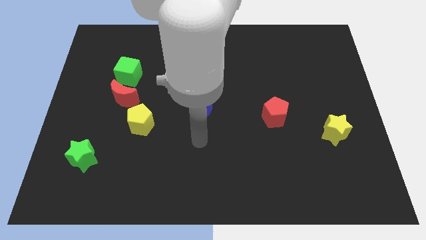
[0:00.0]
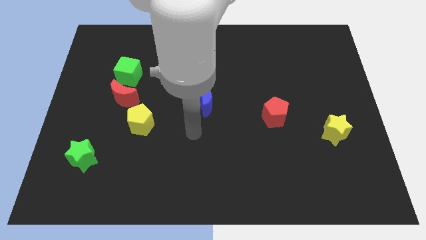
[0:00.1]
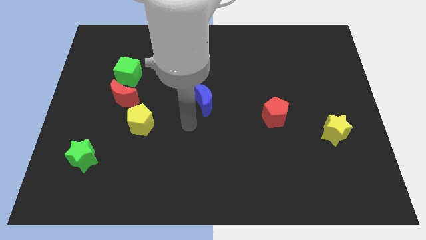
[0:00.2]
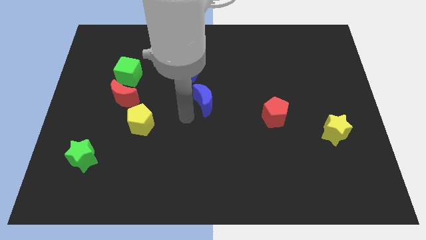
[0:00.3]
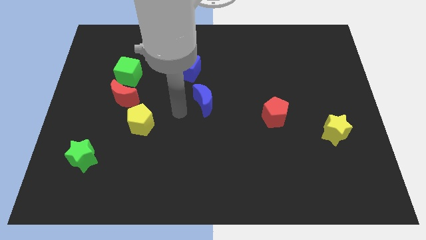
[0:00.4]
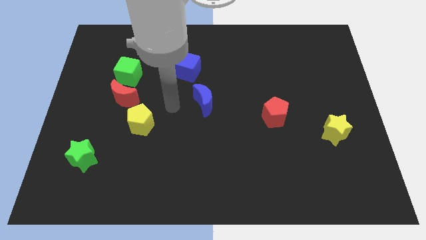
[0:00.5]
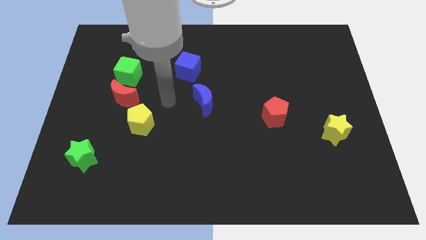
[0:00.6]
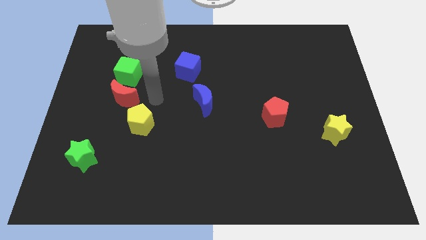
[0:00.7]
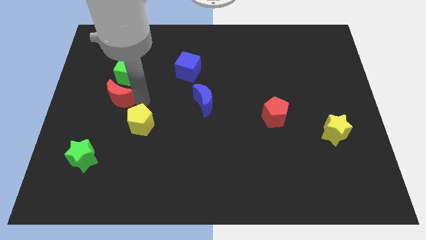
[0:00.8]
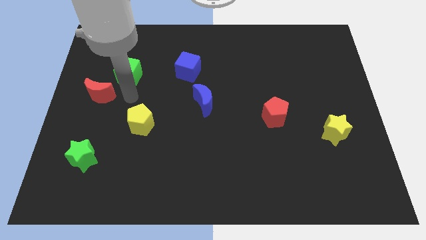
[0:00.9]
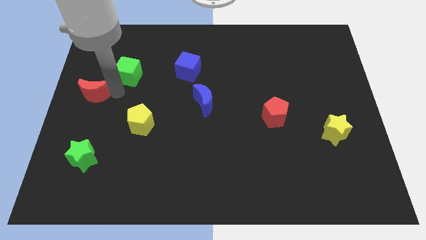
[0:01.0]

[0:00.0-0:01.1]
pull the green cube apart from the red moon

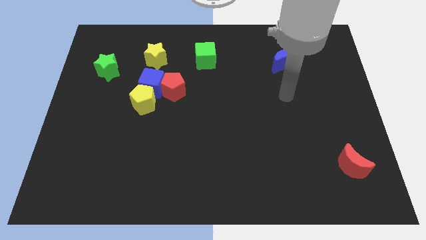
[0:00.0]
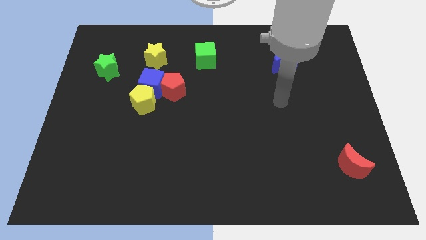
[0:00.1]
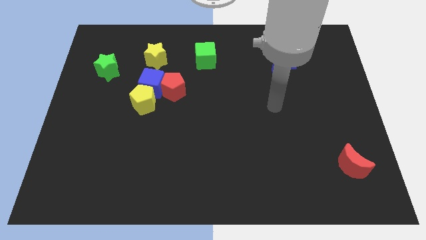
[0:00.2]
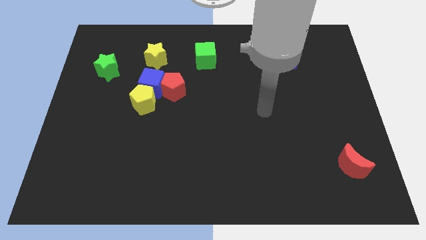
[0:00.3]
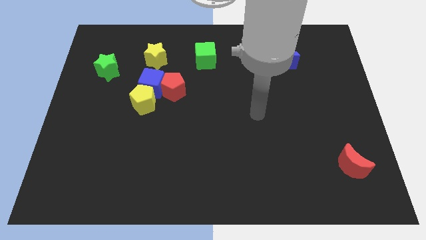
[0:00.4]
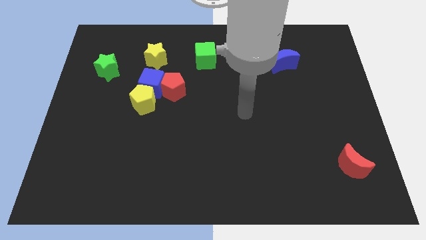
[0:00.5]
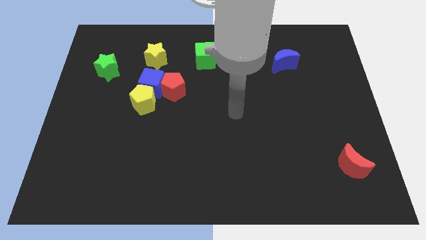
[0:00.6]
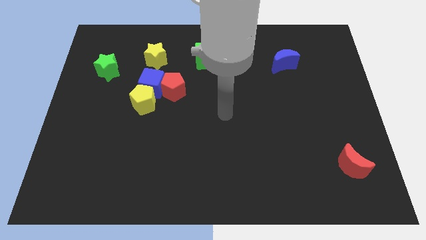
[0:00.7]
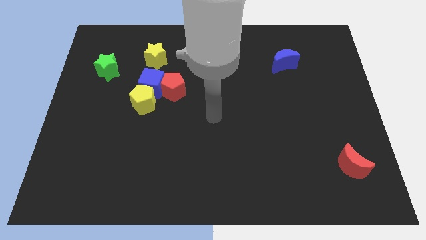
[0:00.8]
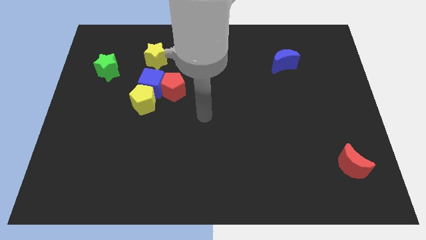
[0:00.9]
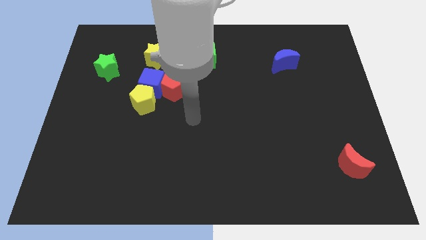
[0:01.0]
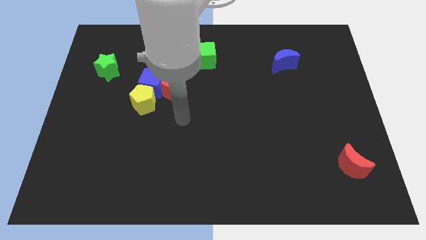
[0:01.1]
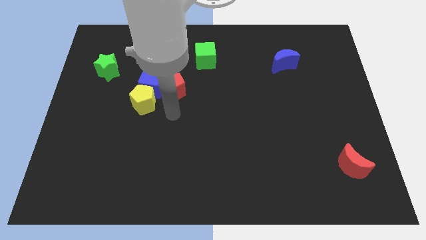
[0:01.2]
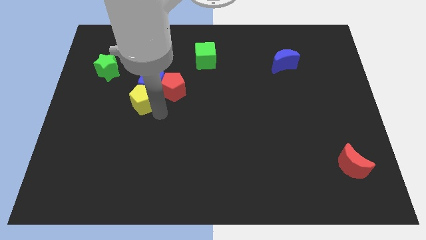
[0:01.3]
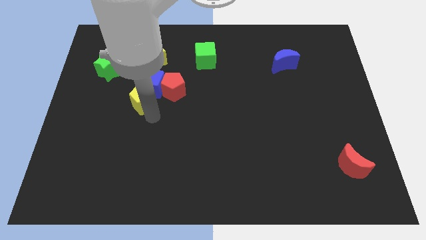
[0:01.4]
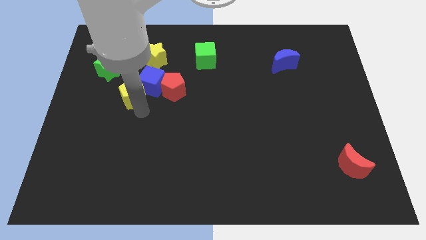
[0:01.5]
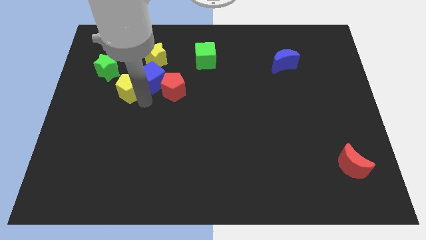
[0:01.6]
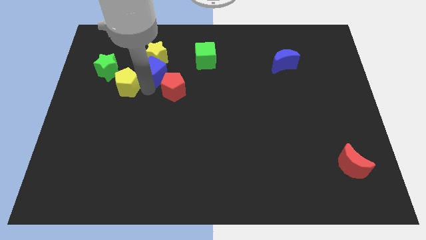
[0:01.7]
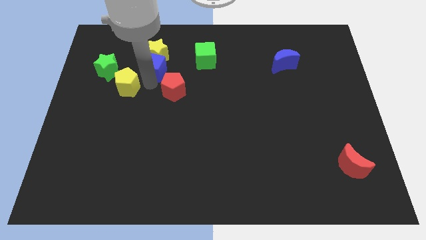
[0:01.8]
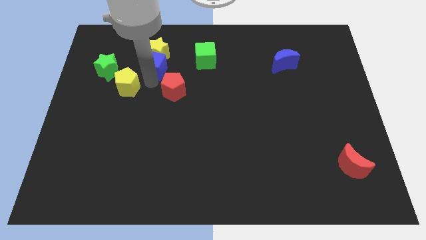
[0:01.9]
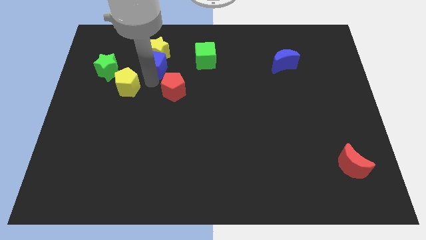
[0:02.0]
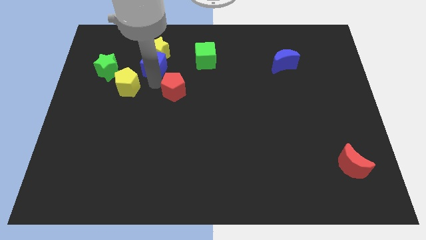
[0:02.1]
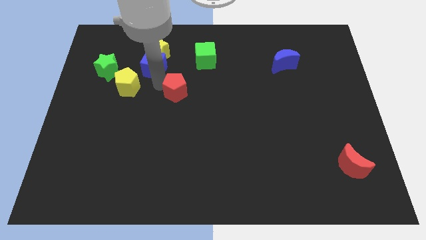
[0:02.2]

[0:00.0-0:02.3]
separate the red pentagon from the blue cube and yellow pentagon

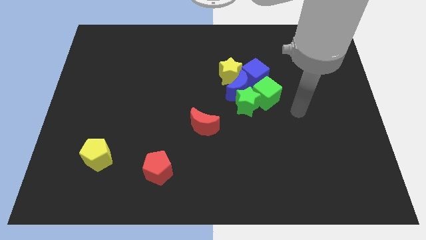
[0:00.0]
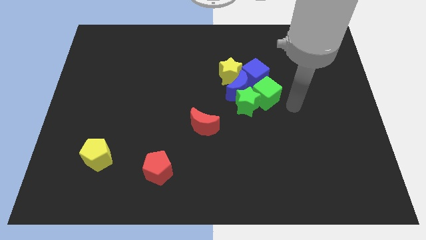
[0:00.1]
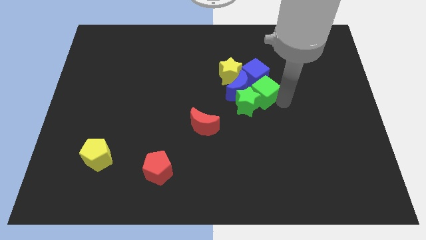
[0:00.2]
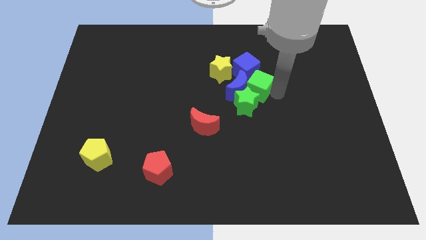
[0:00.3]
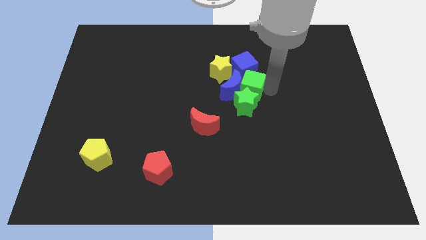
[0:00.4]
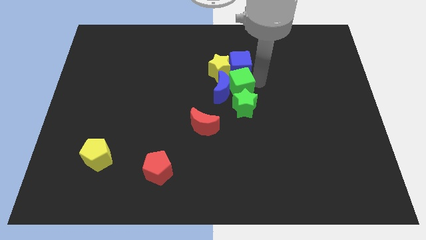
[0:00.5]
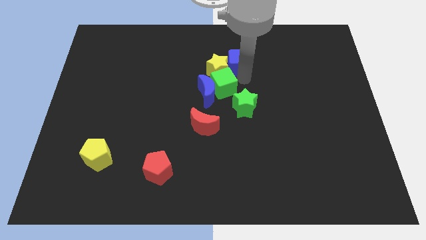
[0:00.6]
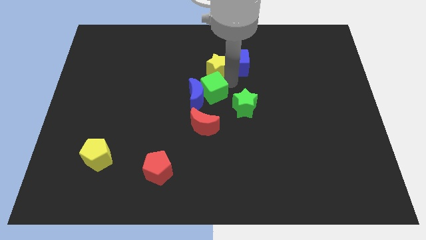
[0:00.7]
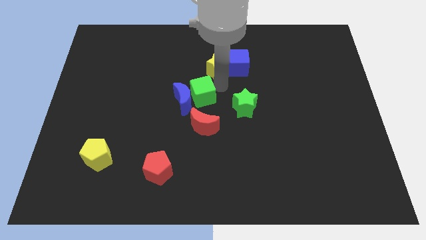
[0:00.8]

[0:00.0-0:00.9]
move the blue moon away from the clump

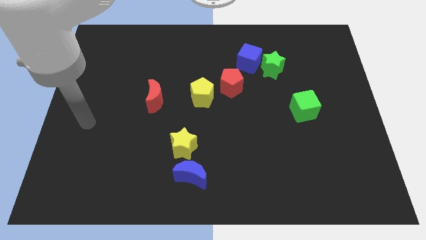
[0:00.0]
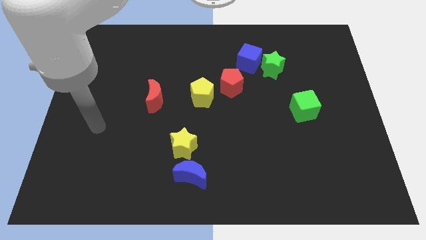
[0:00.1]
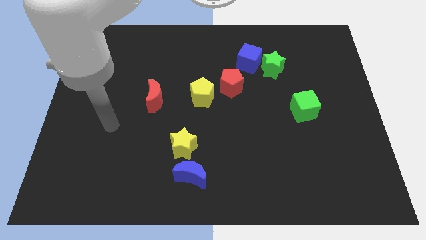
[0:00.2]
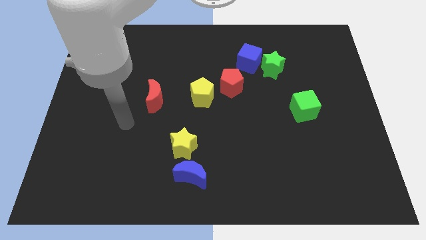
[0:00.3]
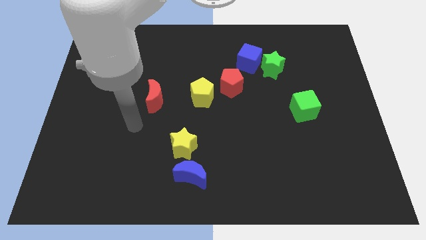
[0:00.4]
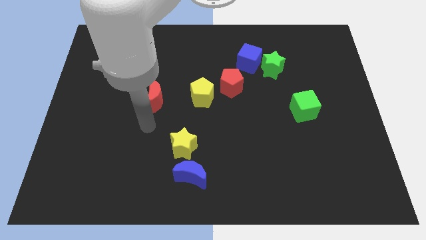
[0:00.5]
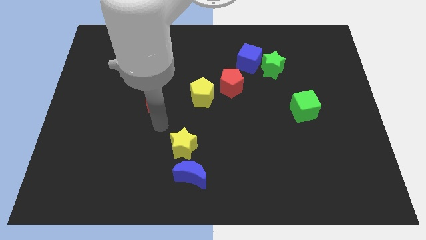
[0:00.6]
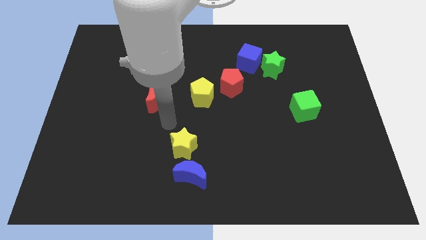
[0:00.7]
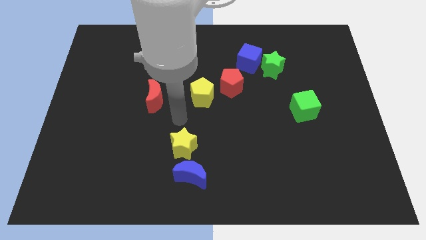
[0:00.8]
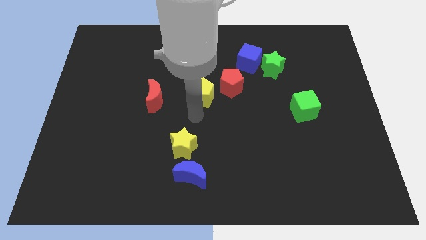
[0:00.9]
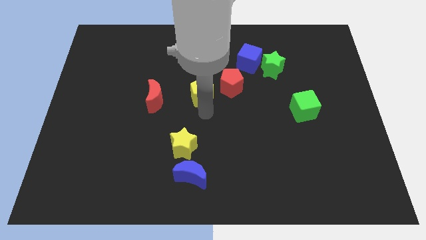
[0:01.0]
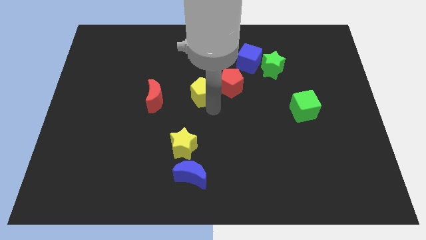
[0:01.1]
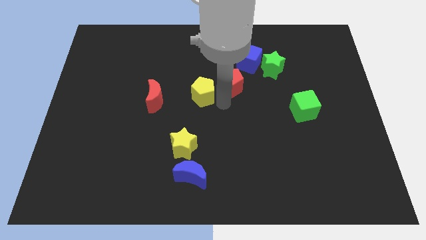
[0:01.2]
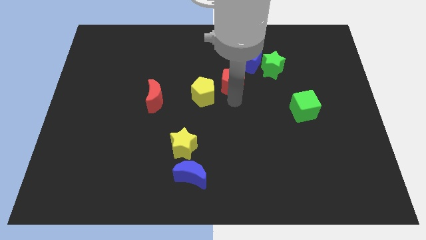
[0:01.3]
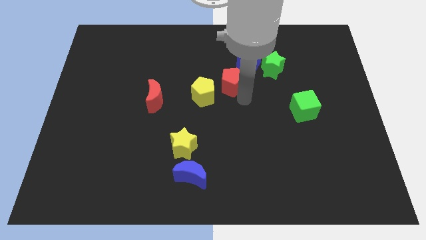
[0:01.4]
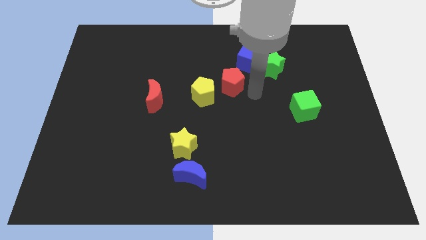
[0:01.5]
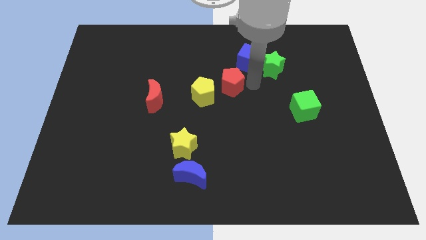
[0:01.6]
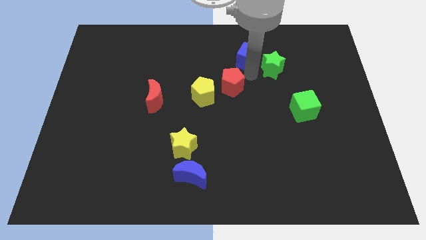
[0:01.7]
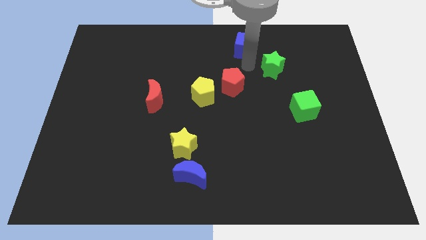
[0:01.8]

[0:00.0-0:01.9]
move the green star away from the blue cube

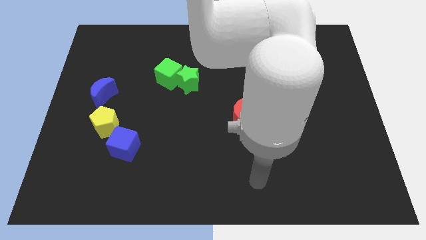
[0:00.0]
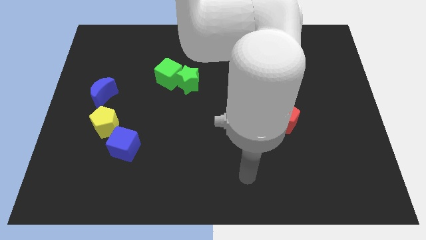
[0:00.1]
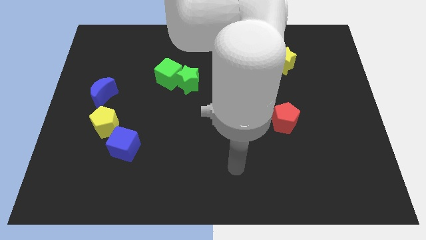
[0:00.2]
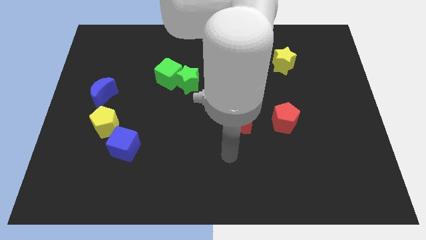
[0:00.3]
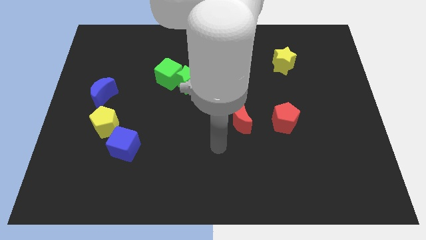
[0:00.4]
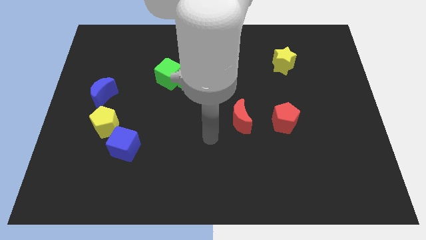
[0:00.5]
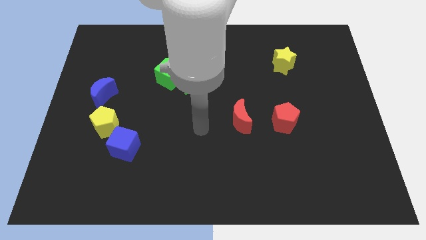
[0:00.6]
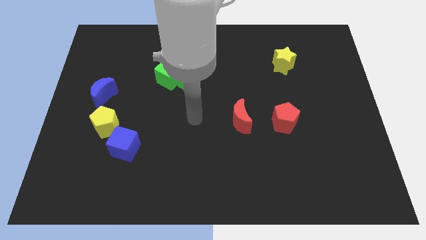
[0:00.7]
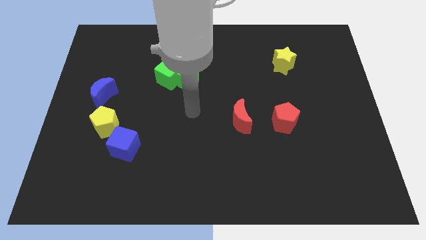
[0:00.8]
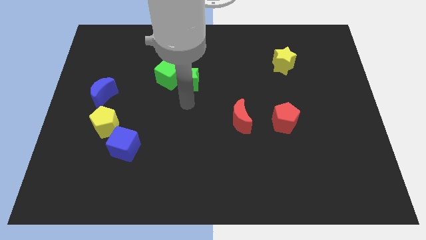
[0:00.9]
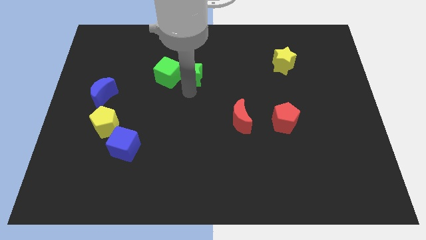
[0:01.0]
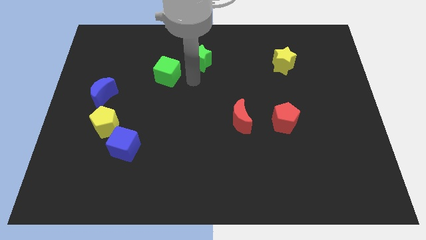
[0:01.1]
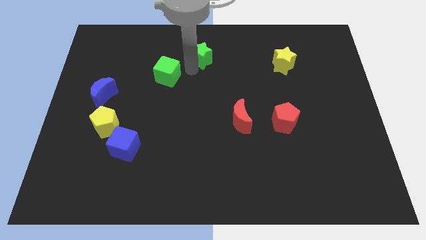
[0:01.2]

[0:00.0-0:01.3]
pull the green cube apart from the green star

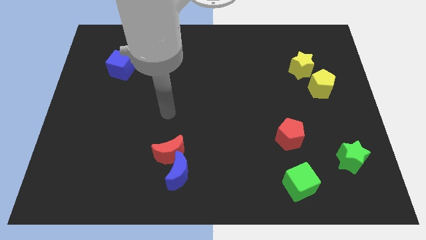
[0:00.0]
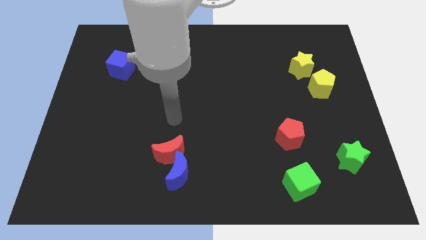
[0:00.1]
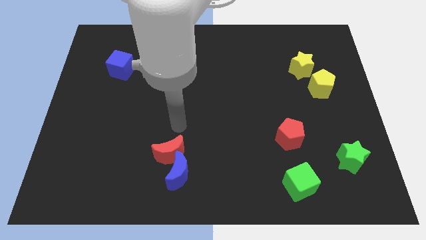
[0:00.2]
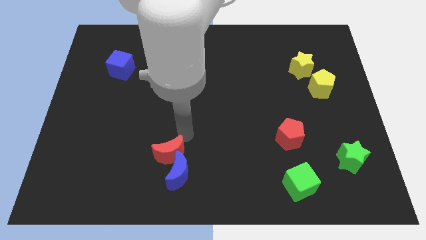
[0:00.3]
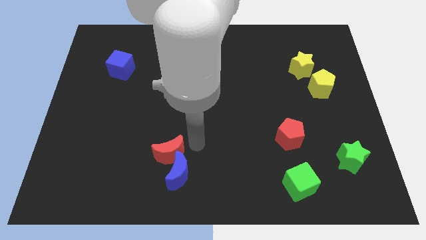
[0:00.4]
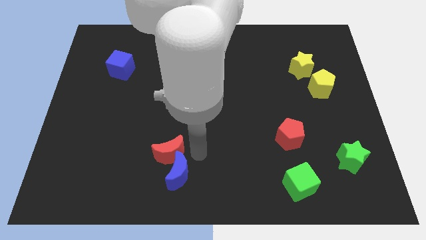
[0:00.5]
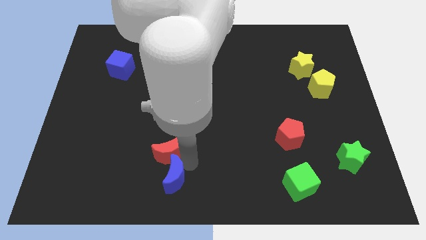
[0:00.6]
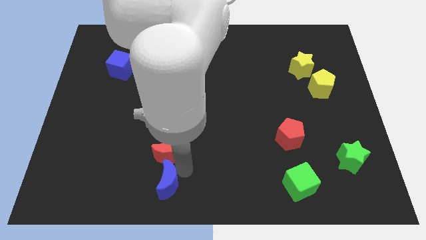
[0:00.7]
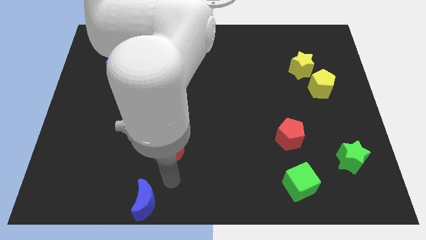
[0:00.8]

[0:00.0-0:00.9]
pull the red moon apart from the blue moon

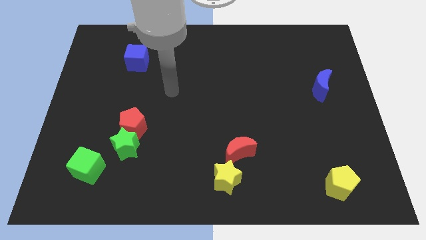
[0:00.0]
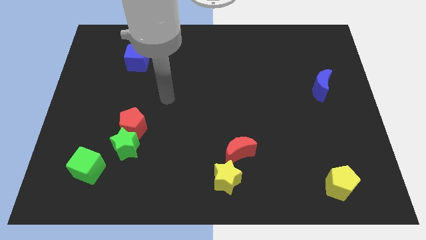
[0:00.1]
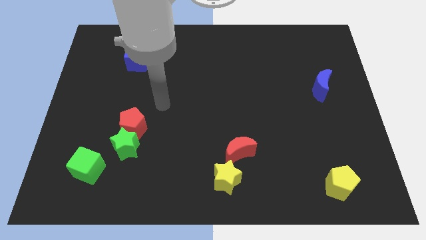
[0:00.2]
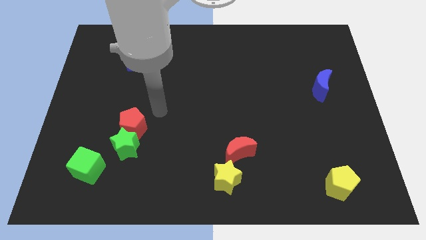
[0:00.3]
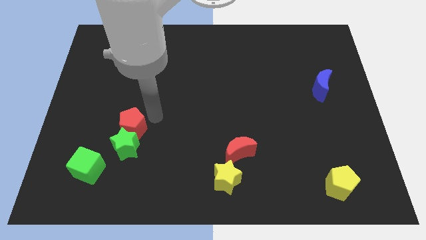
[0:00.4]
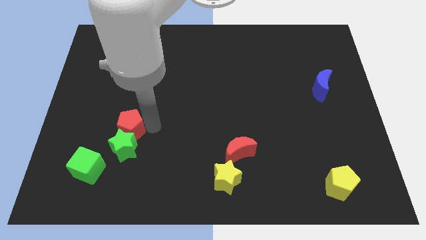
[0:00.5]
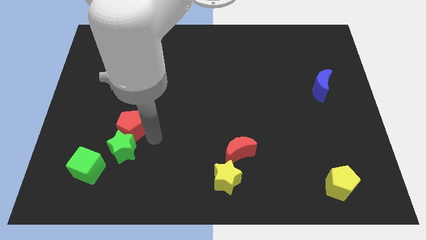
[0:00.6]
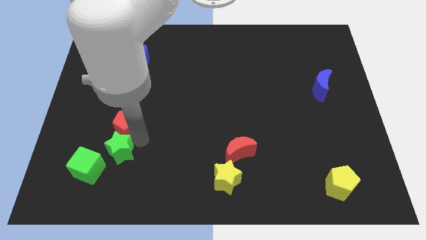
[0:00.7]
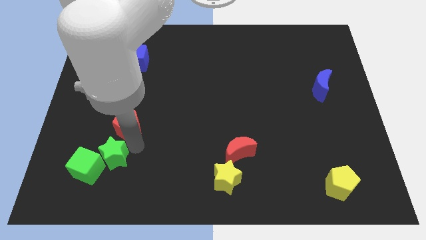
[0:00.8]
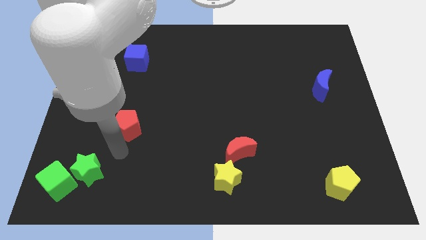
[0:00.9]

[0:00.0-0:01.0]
separate the red pentagon from the green star
